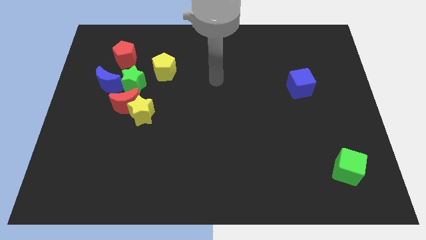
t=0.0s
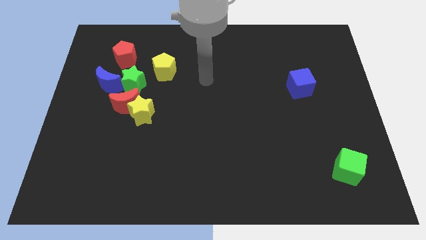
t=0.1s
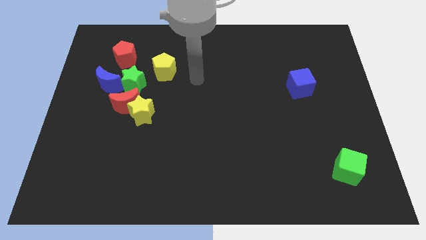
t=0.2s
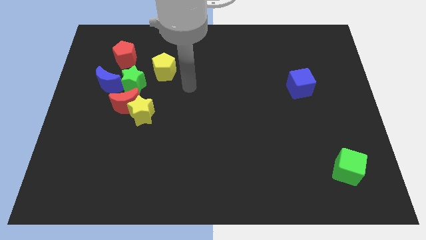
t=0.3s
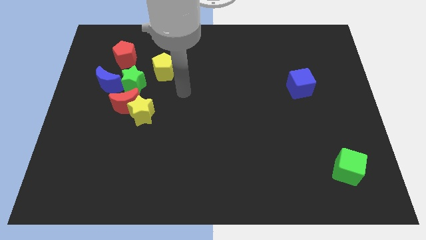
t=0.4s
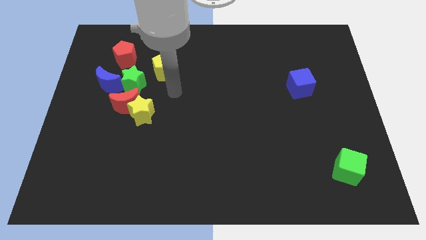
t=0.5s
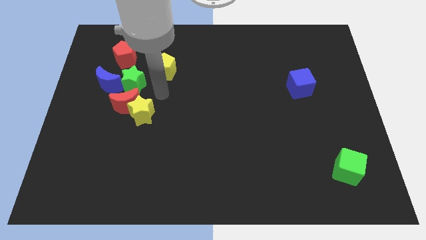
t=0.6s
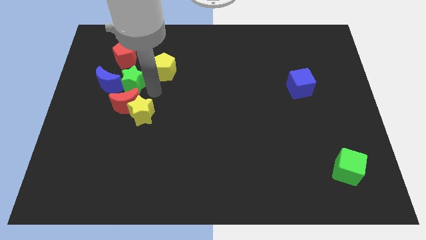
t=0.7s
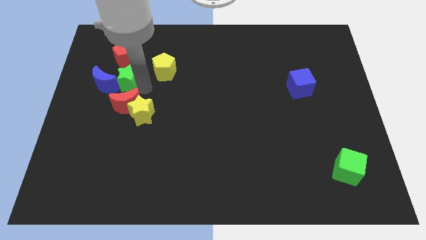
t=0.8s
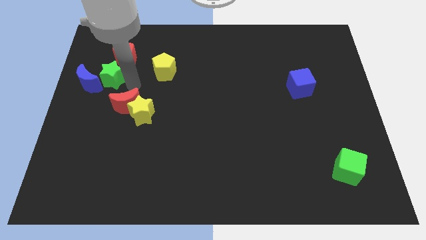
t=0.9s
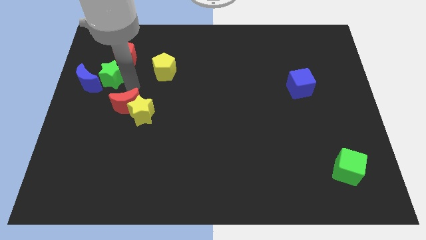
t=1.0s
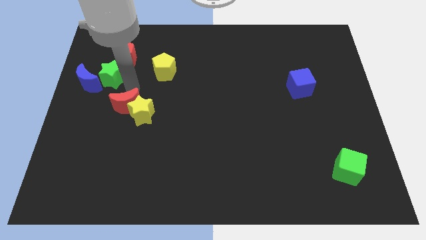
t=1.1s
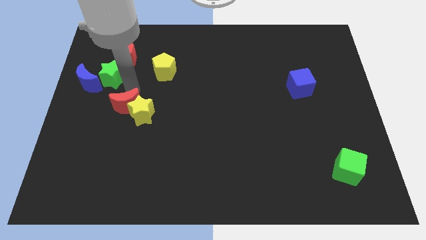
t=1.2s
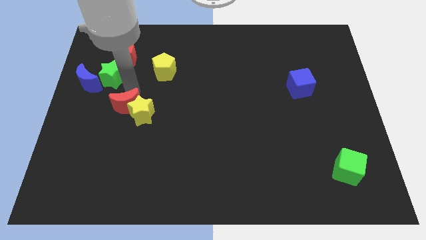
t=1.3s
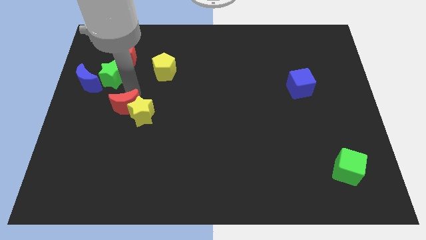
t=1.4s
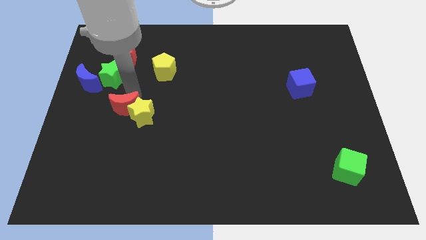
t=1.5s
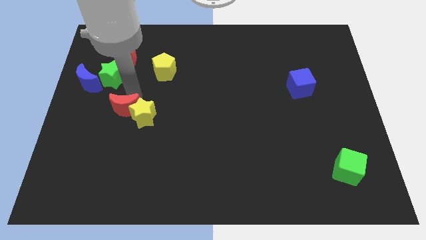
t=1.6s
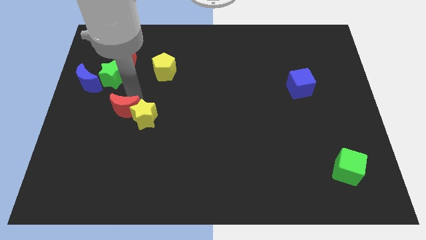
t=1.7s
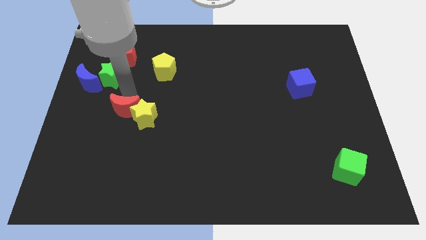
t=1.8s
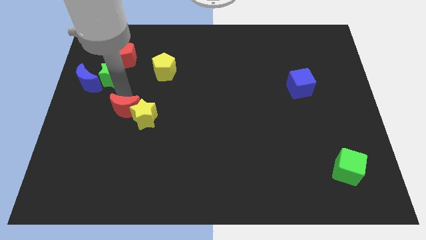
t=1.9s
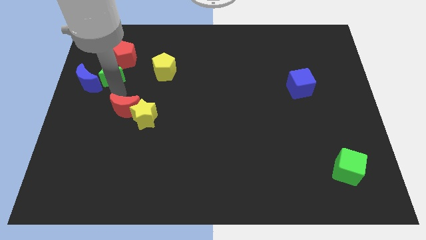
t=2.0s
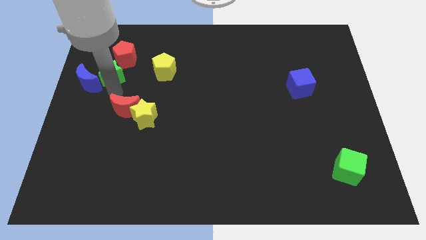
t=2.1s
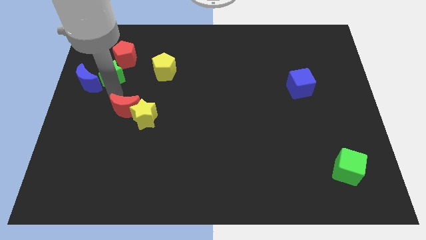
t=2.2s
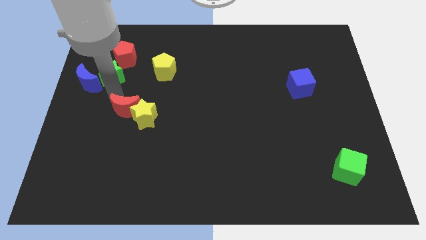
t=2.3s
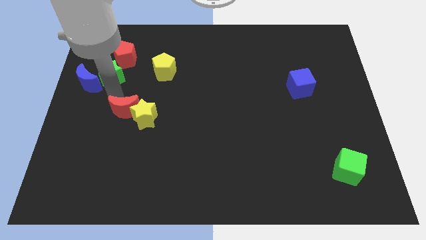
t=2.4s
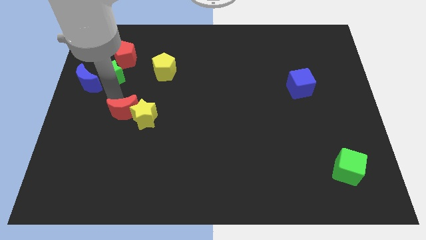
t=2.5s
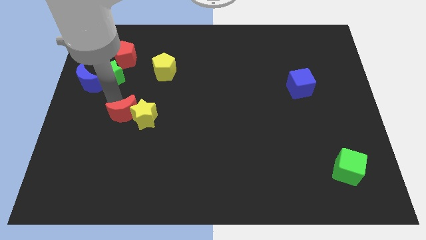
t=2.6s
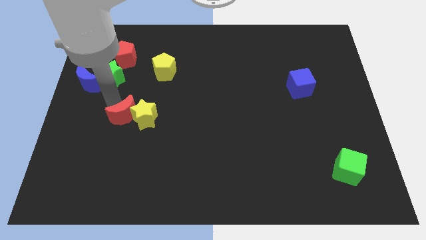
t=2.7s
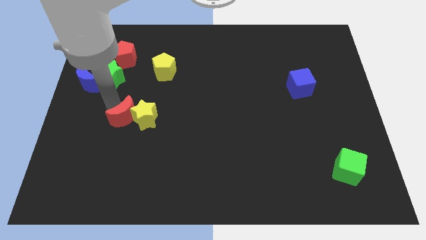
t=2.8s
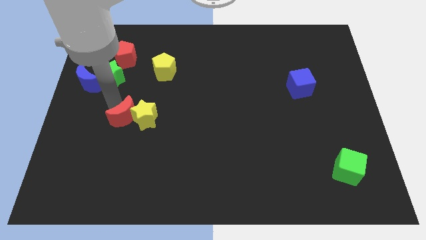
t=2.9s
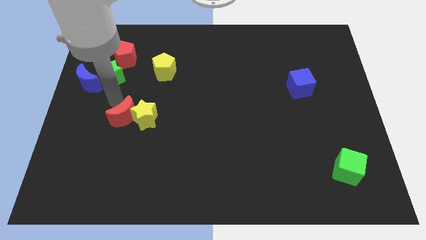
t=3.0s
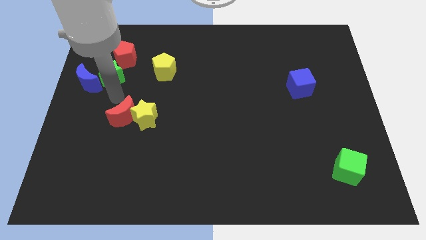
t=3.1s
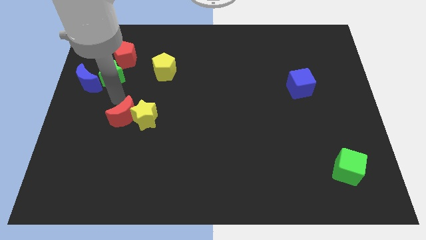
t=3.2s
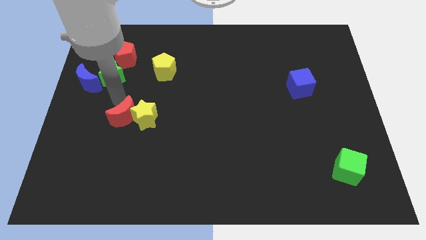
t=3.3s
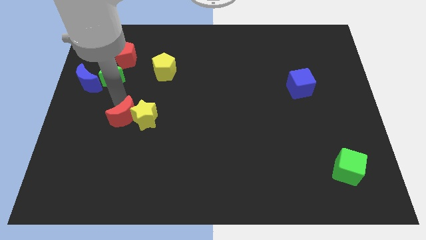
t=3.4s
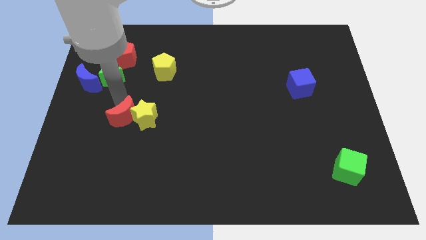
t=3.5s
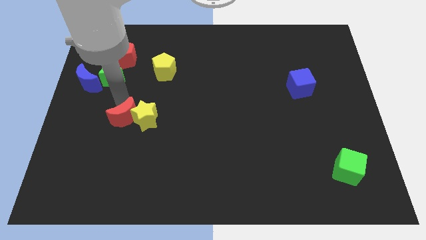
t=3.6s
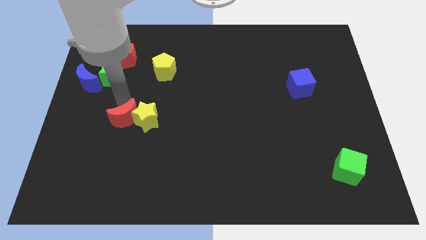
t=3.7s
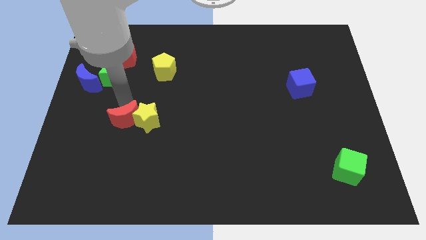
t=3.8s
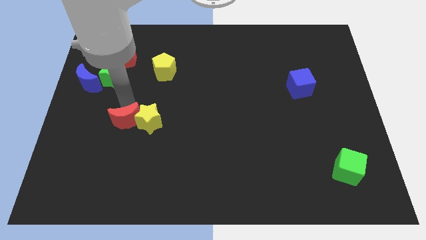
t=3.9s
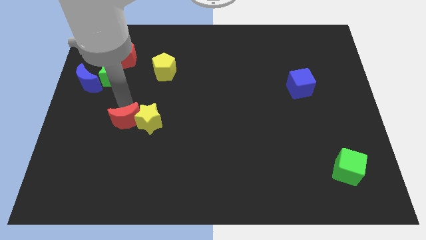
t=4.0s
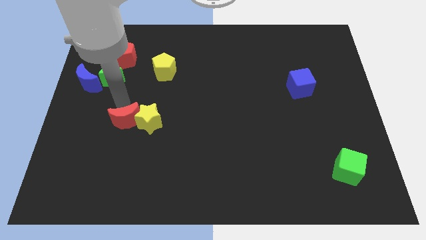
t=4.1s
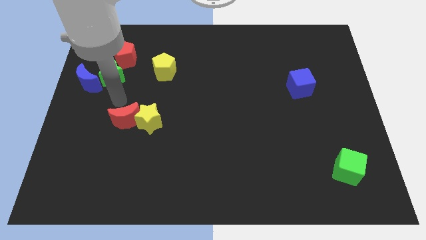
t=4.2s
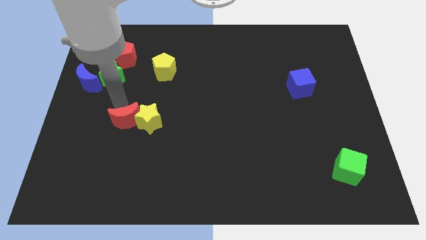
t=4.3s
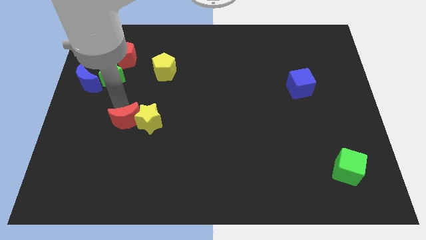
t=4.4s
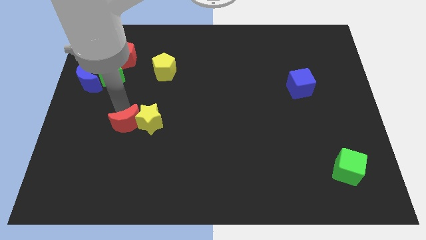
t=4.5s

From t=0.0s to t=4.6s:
pull the red moon apart from the yellow star, green star, and blue moon

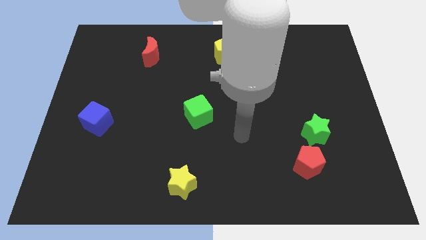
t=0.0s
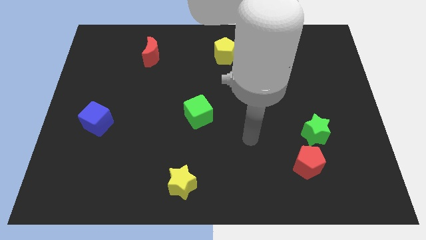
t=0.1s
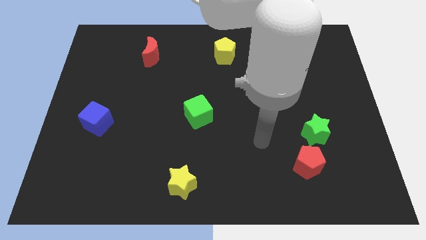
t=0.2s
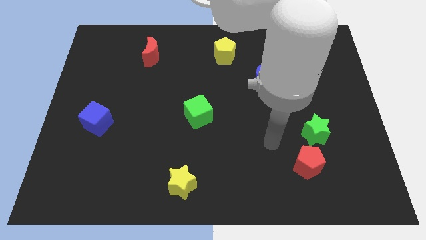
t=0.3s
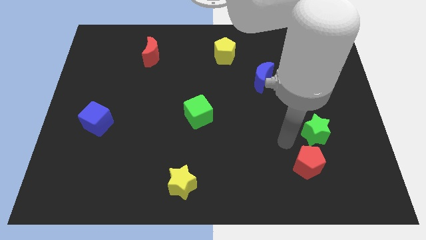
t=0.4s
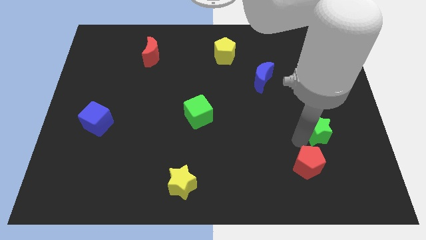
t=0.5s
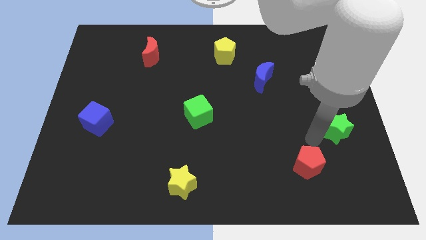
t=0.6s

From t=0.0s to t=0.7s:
move the red pentagon away from the green star

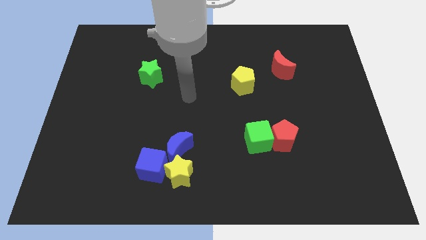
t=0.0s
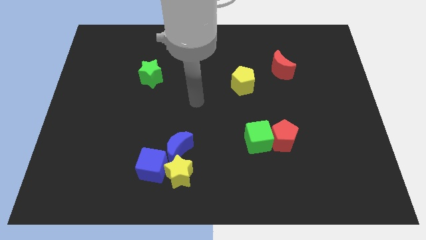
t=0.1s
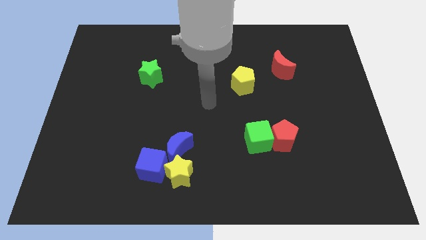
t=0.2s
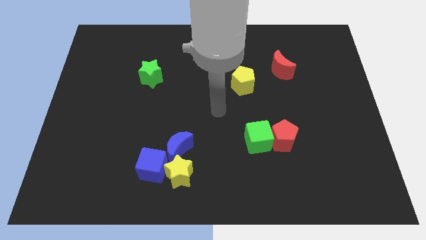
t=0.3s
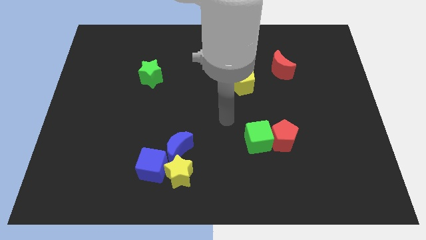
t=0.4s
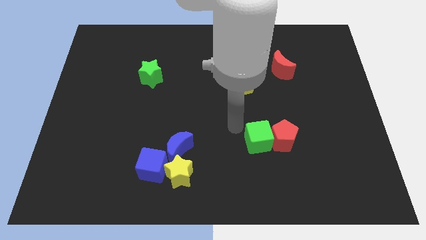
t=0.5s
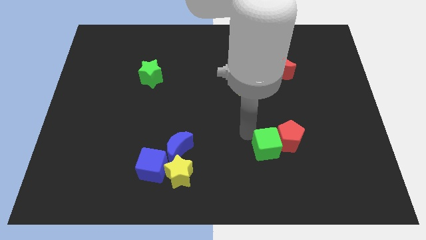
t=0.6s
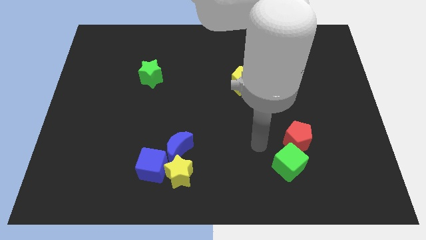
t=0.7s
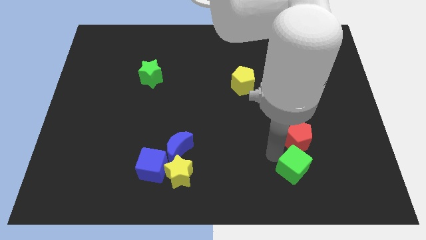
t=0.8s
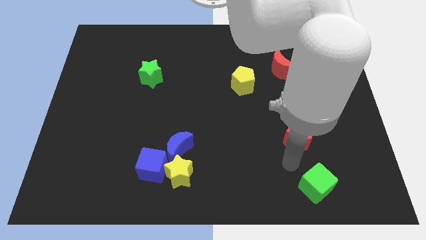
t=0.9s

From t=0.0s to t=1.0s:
move the red pentagon away from the green cube

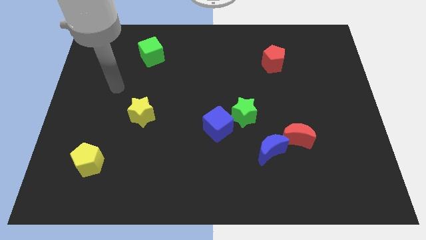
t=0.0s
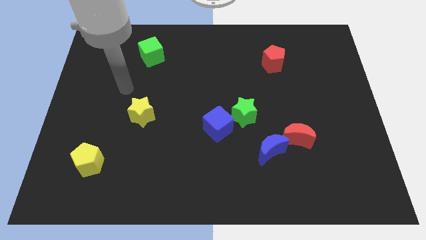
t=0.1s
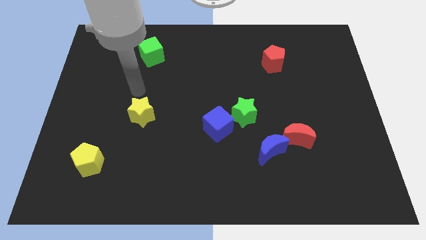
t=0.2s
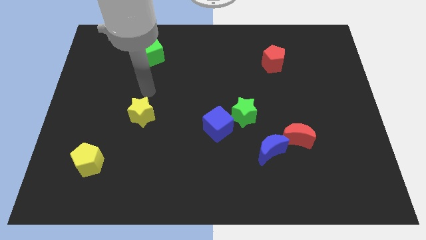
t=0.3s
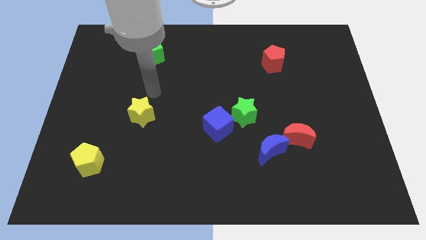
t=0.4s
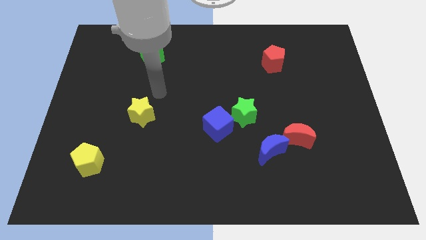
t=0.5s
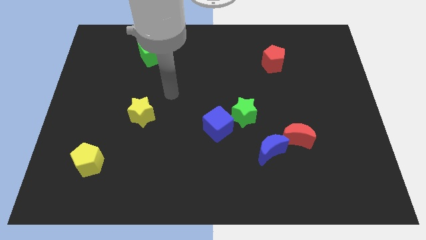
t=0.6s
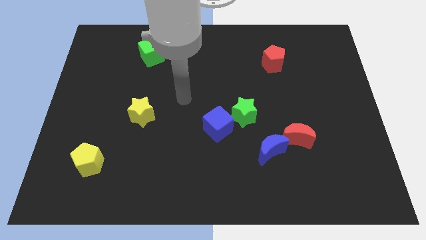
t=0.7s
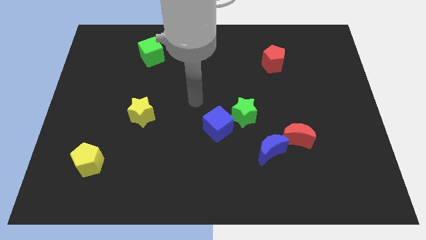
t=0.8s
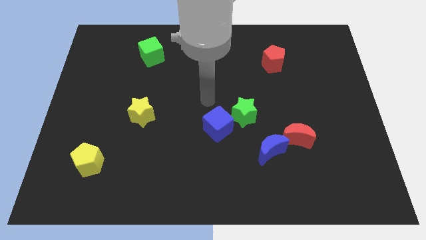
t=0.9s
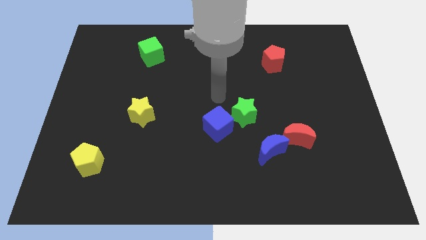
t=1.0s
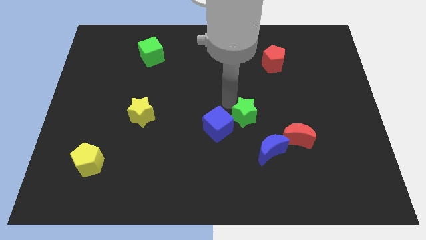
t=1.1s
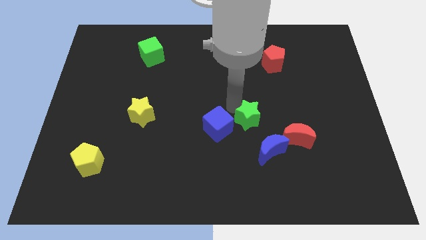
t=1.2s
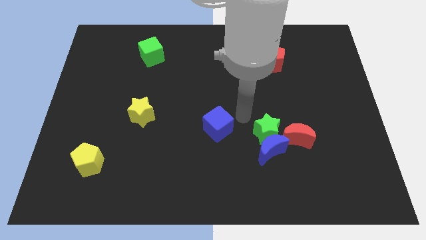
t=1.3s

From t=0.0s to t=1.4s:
pull the blue cube apart from the green star

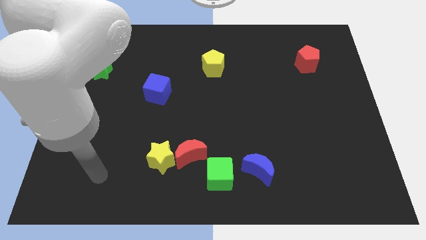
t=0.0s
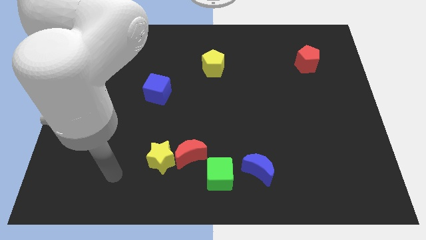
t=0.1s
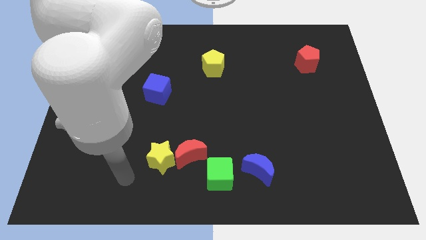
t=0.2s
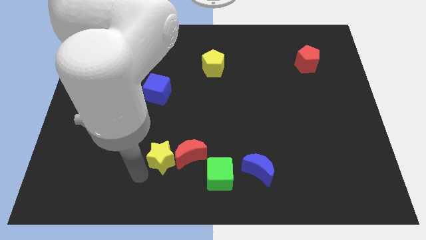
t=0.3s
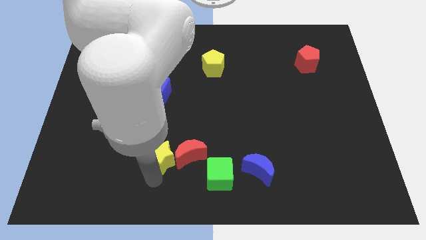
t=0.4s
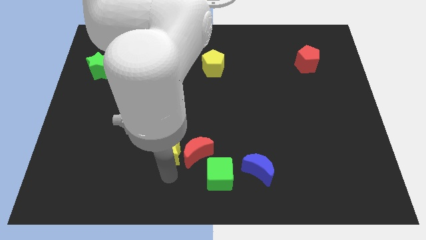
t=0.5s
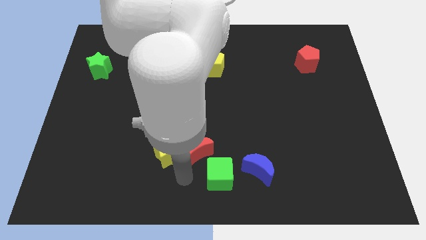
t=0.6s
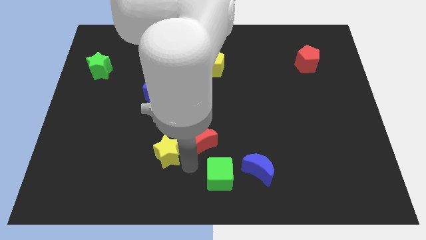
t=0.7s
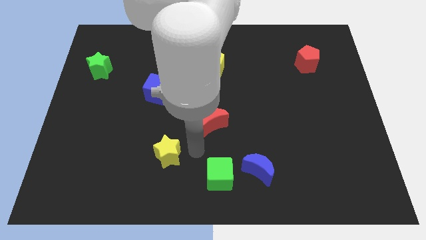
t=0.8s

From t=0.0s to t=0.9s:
pull the yellow star apart from the red moon

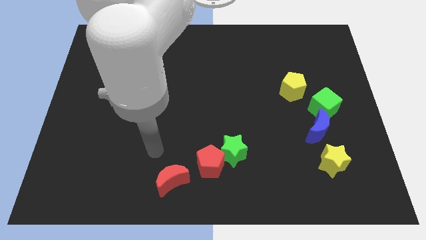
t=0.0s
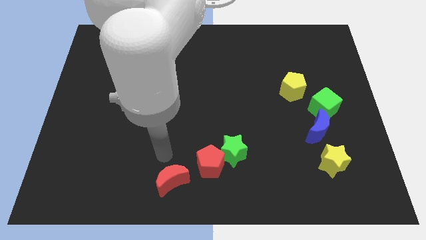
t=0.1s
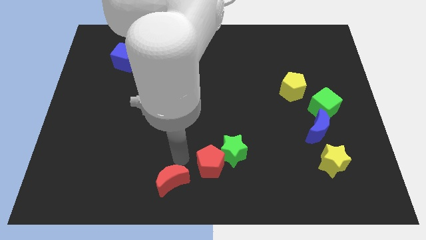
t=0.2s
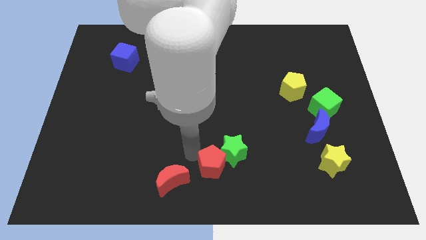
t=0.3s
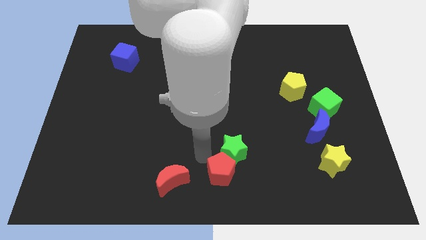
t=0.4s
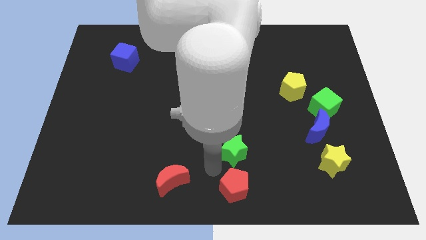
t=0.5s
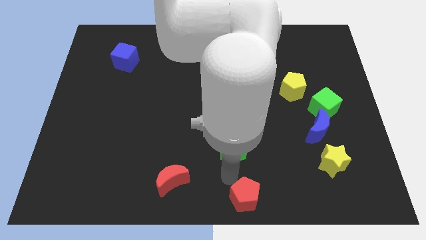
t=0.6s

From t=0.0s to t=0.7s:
move the green star away from the red pentagon

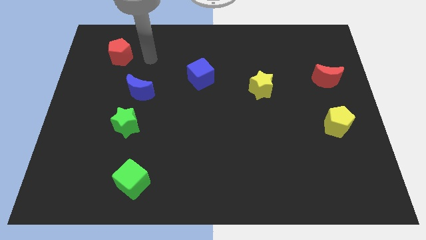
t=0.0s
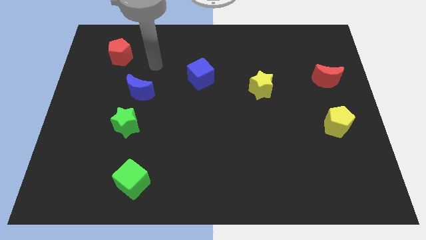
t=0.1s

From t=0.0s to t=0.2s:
pull the blue moon apart from the green star

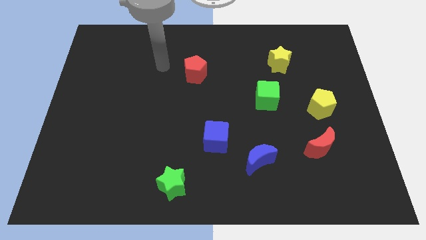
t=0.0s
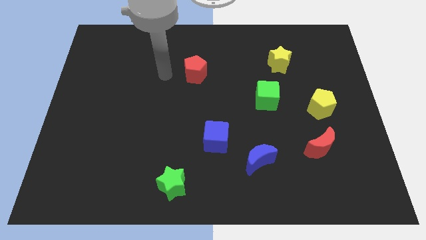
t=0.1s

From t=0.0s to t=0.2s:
pull the blue moon apart from the blue cube
